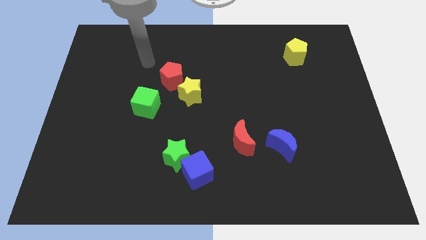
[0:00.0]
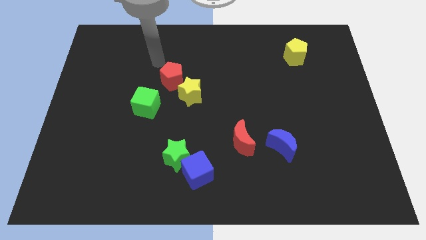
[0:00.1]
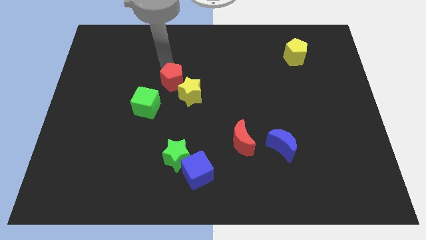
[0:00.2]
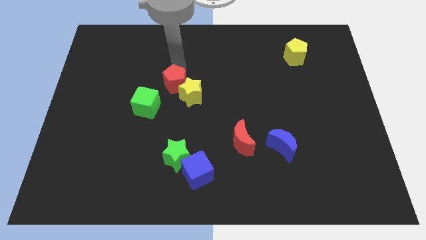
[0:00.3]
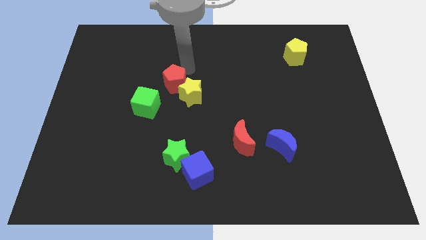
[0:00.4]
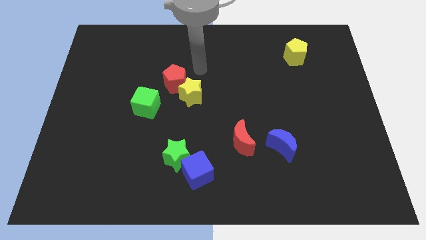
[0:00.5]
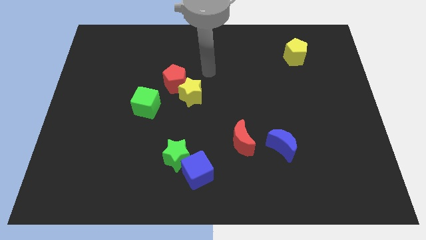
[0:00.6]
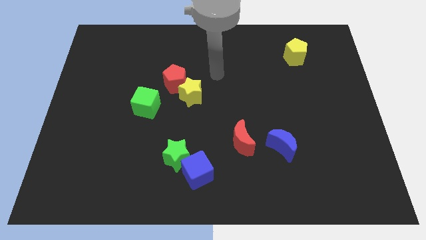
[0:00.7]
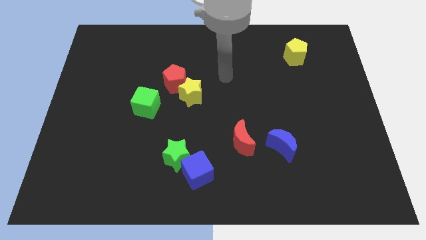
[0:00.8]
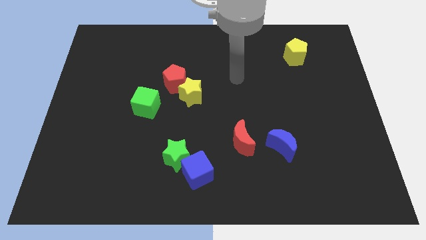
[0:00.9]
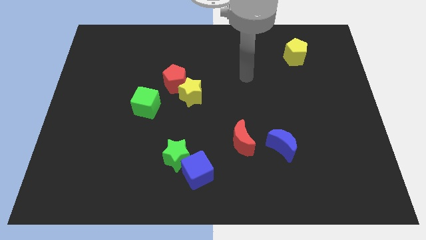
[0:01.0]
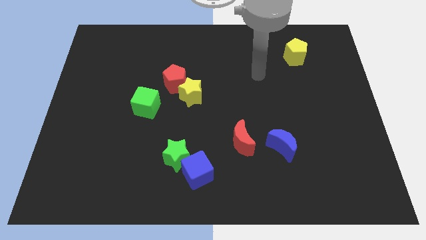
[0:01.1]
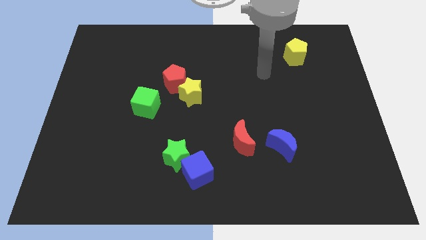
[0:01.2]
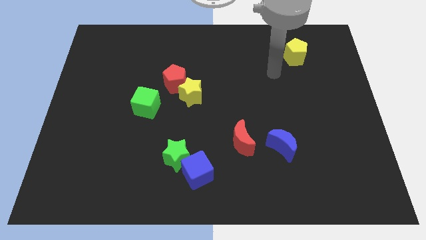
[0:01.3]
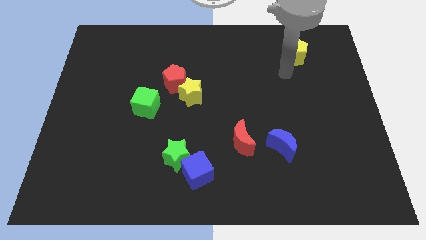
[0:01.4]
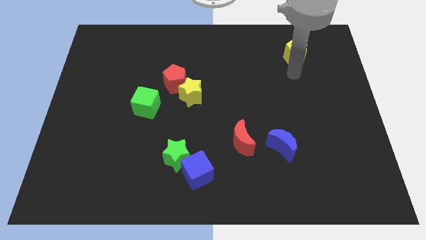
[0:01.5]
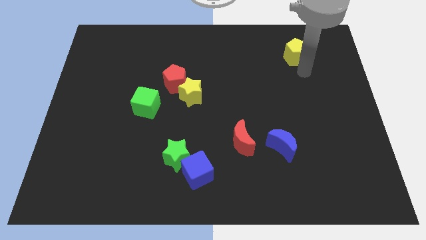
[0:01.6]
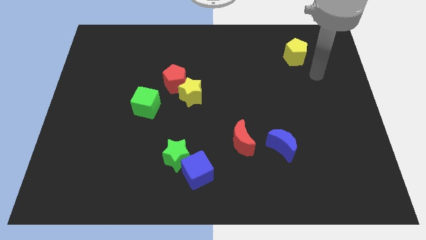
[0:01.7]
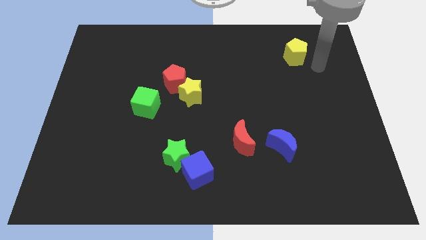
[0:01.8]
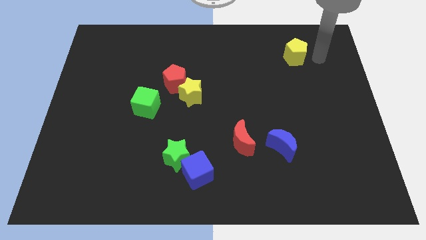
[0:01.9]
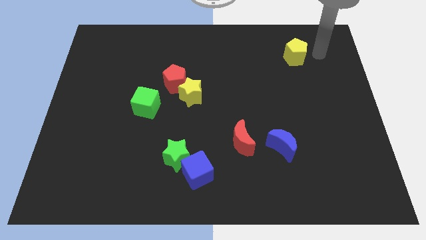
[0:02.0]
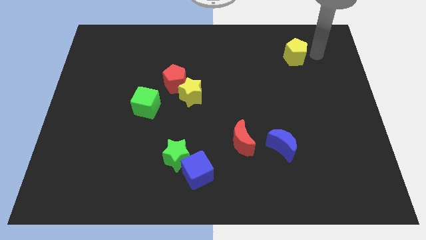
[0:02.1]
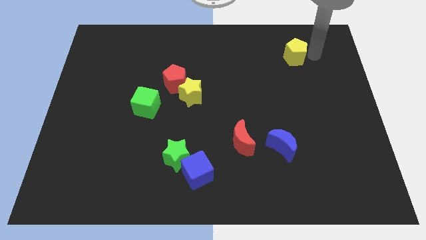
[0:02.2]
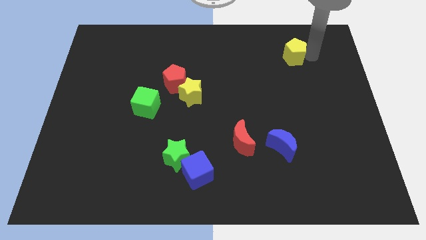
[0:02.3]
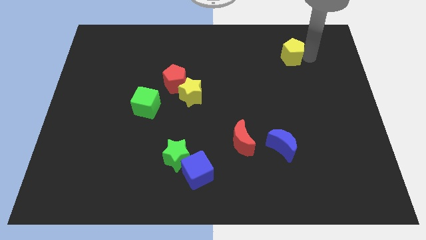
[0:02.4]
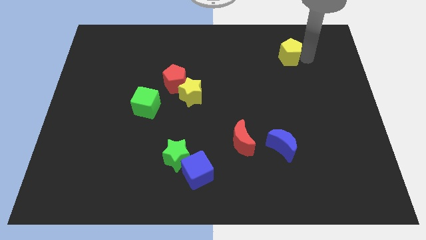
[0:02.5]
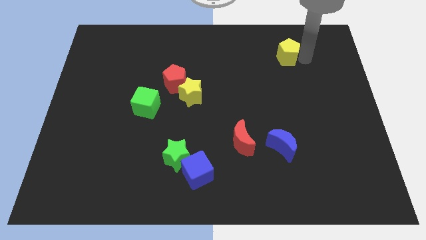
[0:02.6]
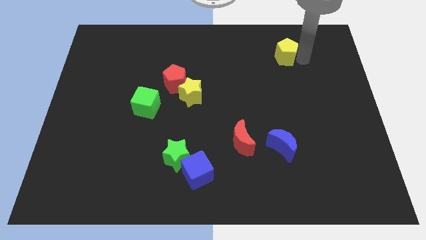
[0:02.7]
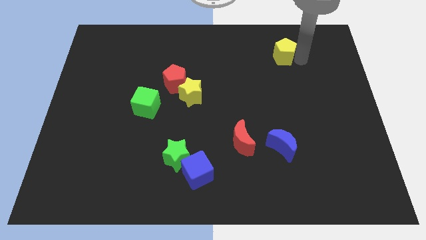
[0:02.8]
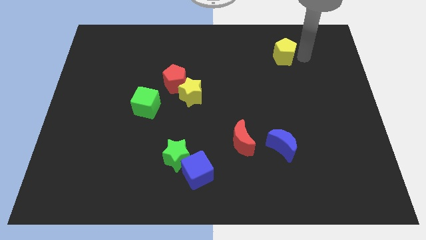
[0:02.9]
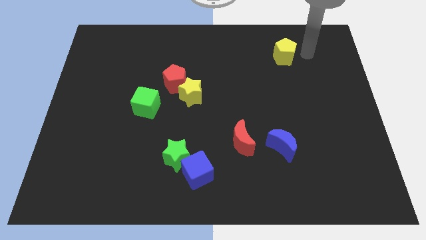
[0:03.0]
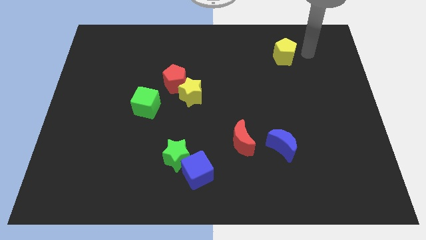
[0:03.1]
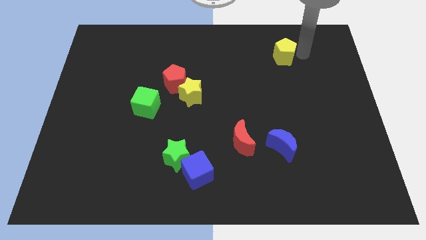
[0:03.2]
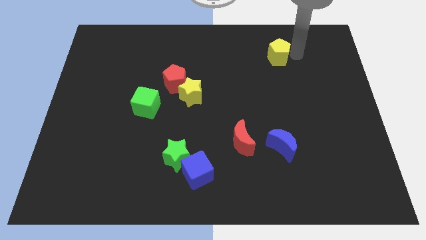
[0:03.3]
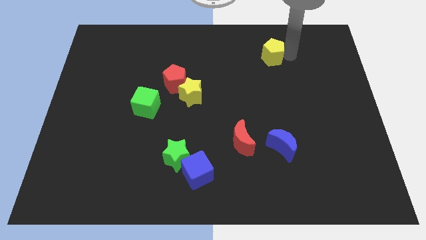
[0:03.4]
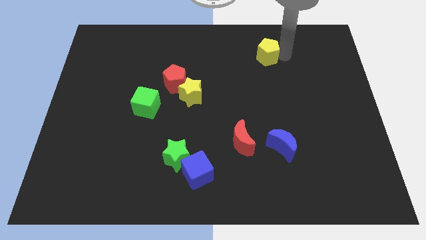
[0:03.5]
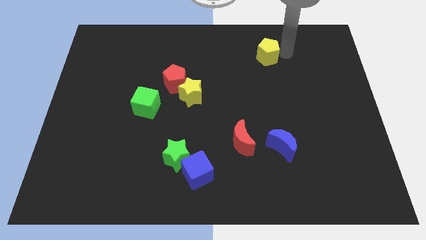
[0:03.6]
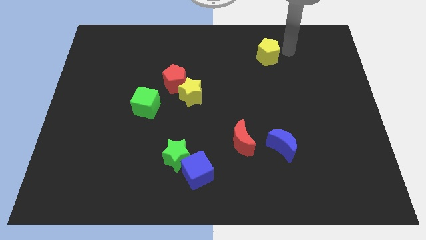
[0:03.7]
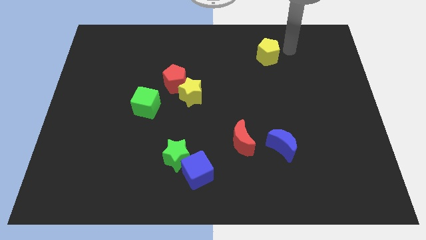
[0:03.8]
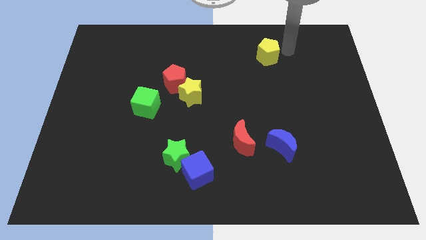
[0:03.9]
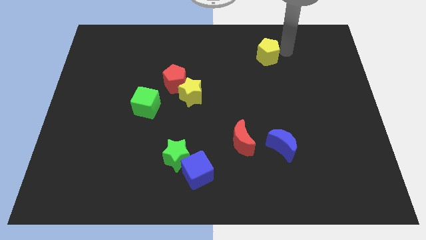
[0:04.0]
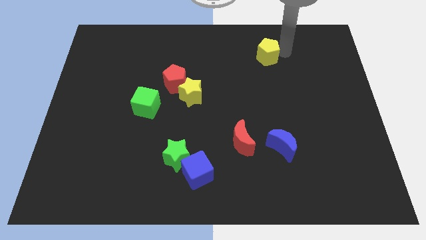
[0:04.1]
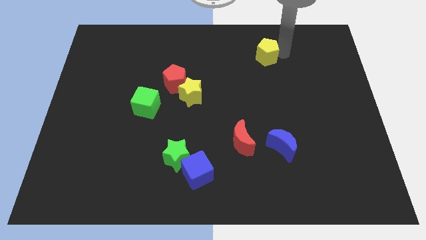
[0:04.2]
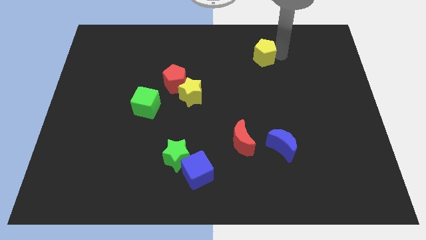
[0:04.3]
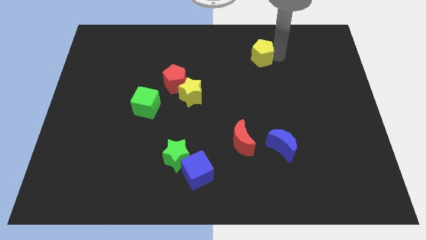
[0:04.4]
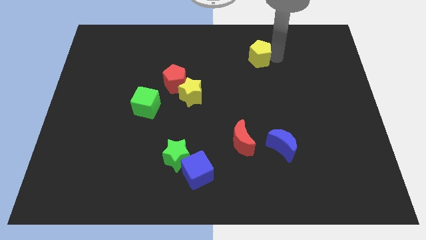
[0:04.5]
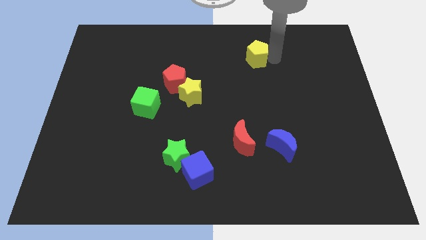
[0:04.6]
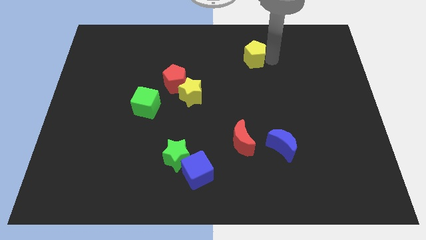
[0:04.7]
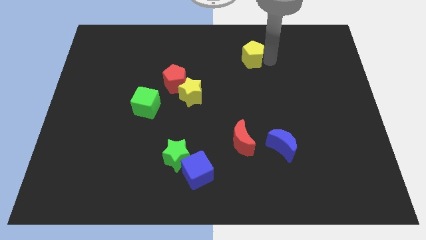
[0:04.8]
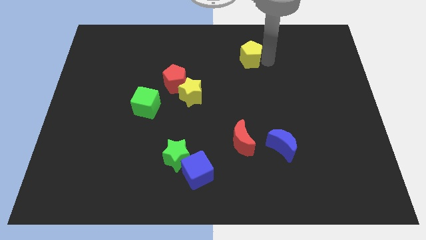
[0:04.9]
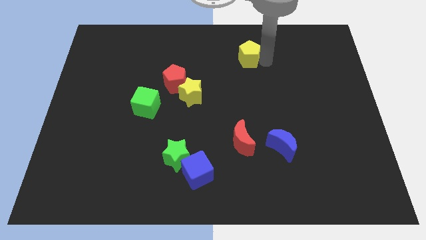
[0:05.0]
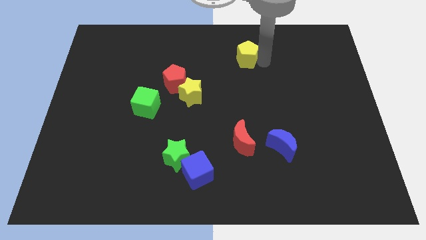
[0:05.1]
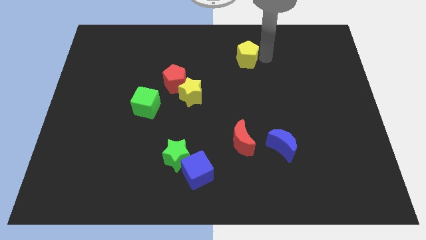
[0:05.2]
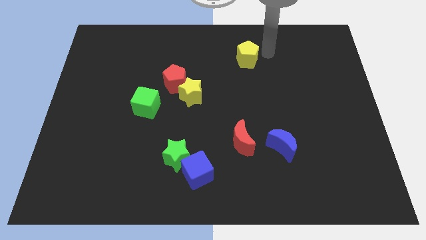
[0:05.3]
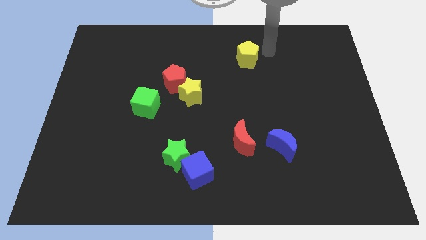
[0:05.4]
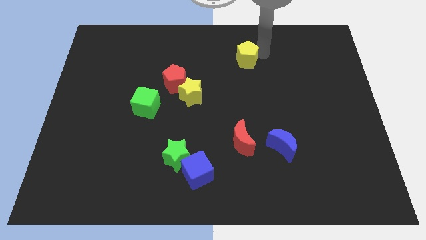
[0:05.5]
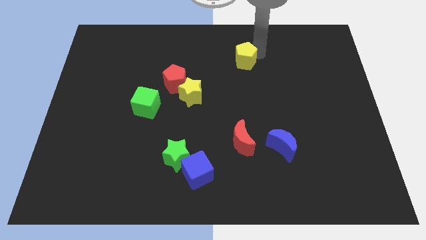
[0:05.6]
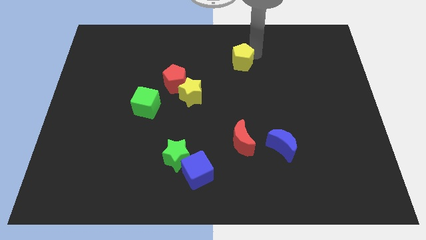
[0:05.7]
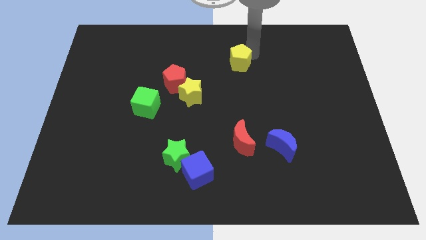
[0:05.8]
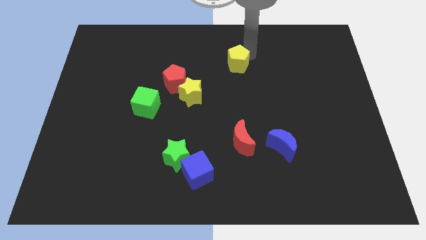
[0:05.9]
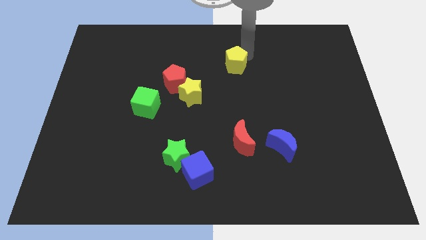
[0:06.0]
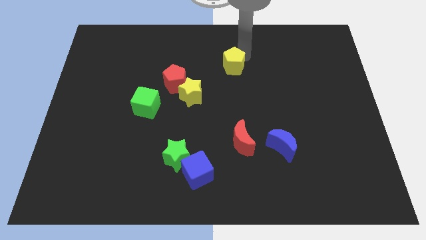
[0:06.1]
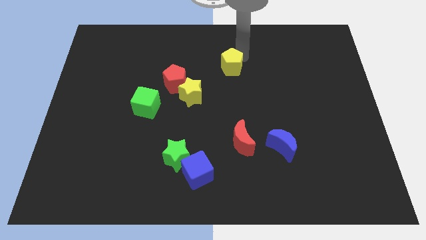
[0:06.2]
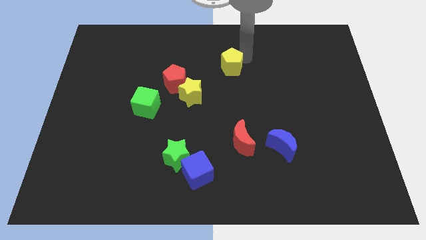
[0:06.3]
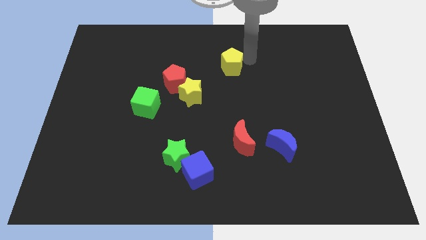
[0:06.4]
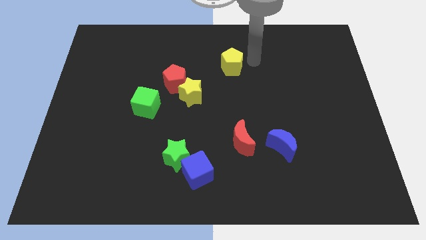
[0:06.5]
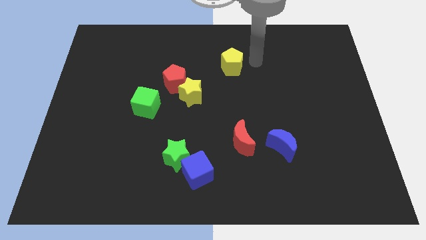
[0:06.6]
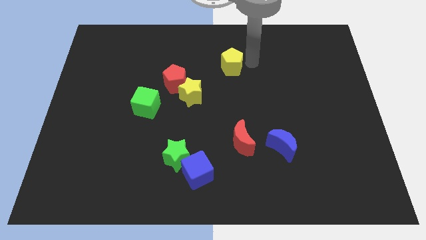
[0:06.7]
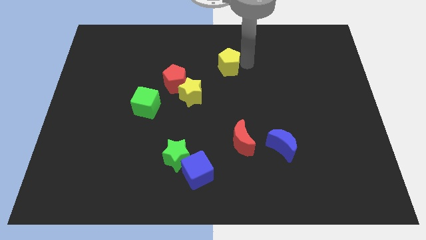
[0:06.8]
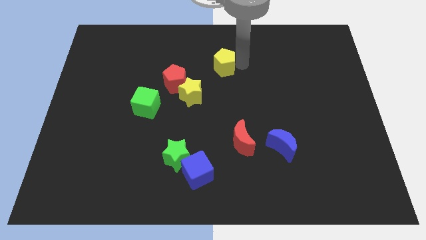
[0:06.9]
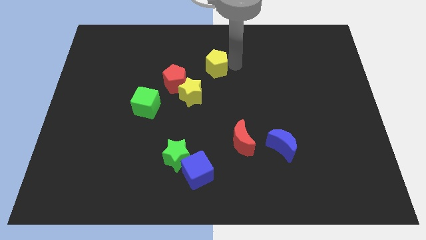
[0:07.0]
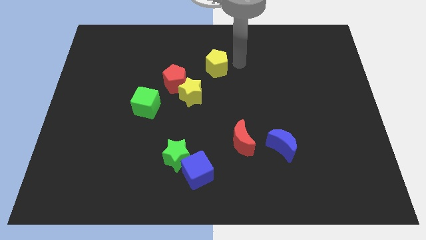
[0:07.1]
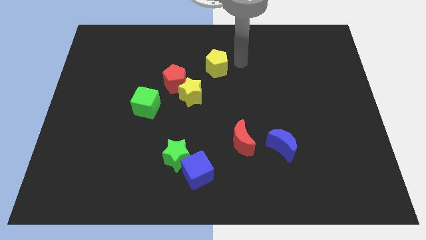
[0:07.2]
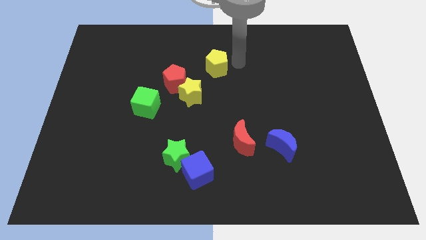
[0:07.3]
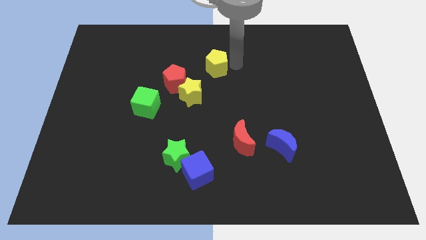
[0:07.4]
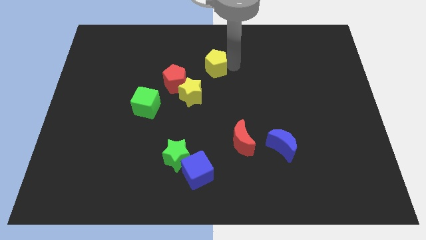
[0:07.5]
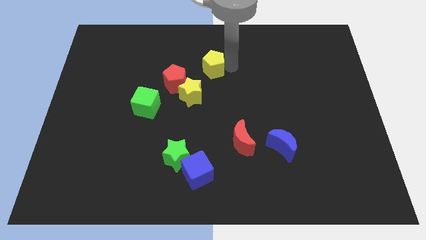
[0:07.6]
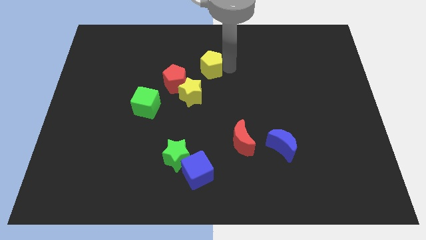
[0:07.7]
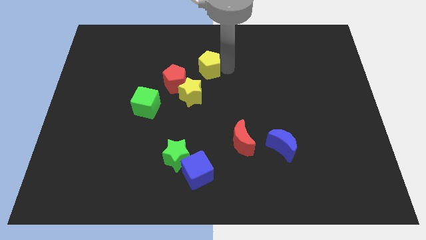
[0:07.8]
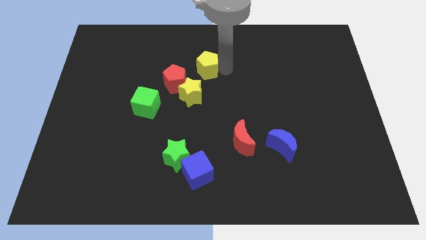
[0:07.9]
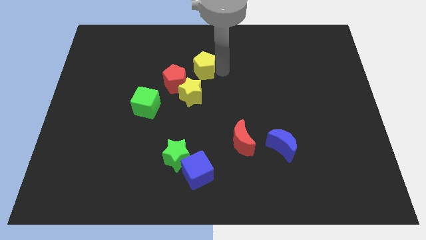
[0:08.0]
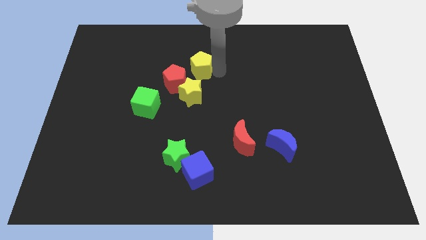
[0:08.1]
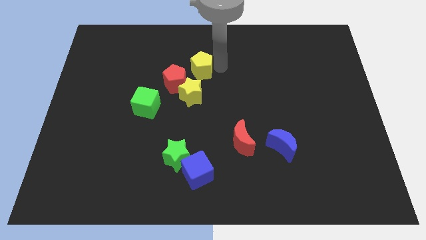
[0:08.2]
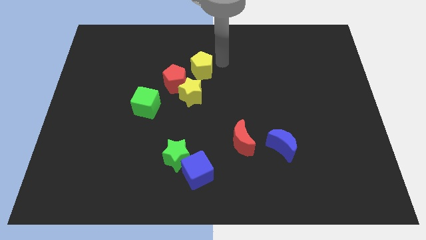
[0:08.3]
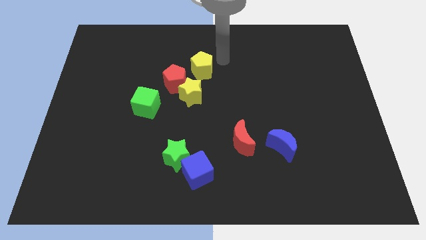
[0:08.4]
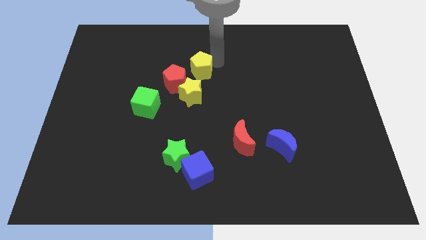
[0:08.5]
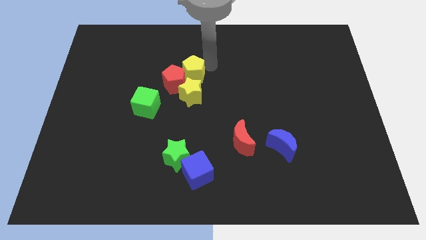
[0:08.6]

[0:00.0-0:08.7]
slide the yellow pentagon to the red pentagon
